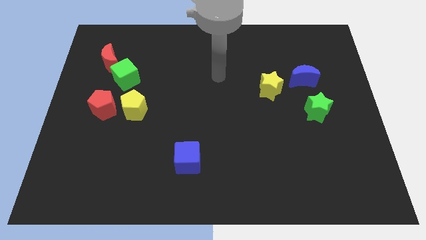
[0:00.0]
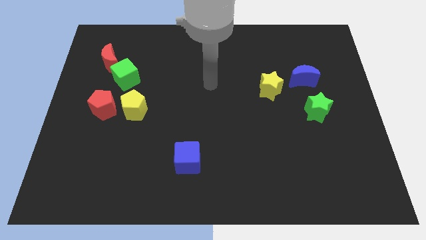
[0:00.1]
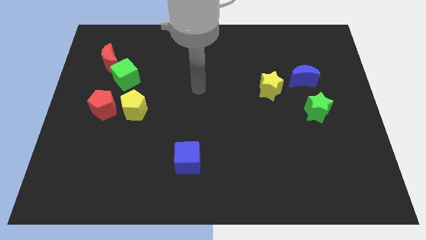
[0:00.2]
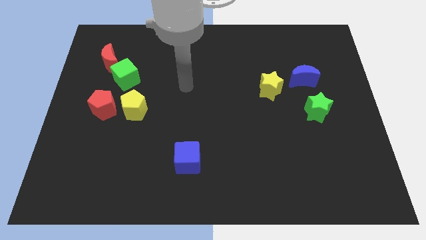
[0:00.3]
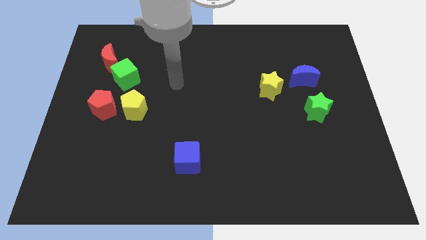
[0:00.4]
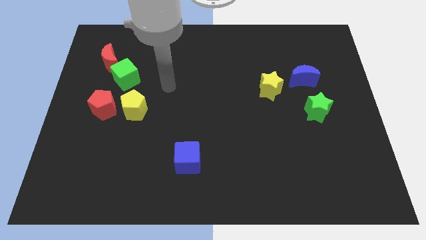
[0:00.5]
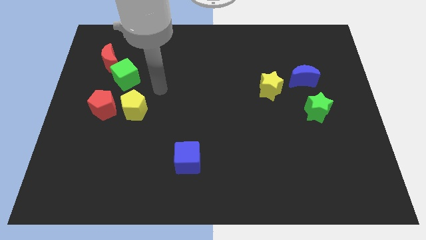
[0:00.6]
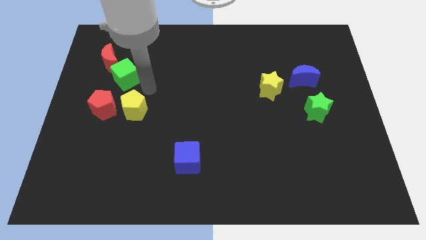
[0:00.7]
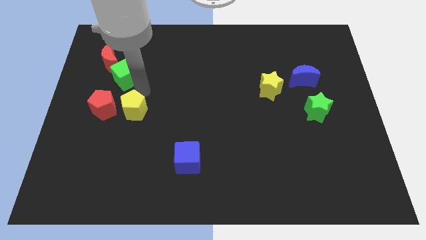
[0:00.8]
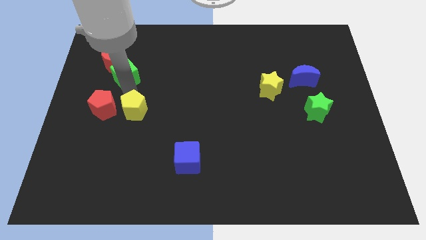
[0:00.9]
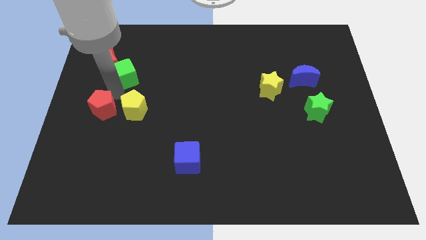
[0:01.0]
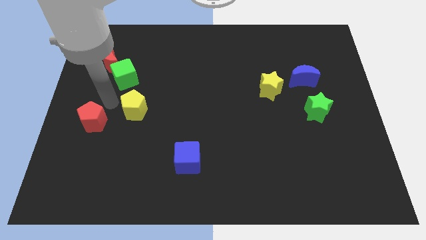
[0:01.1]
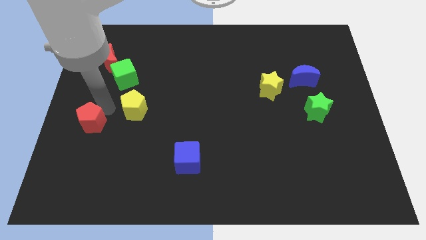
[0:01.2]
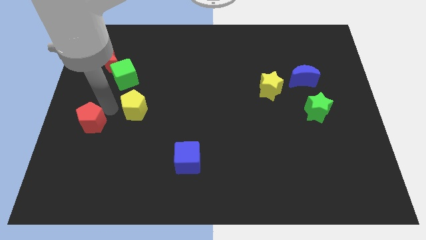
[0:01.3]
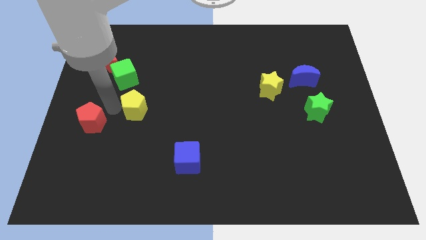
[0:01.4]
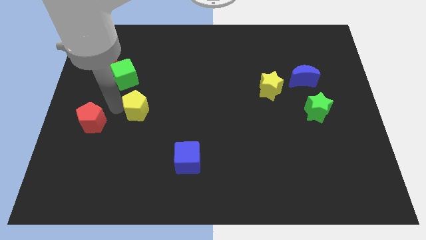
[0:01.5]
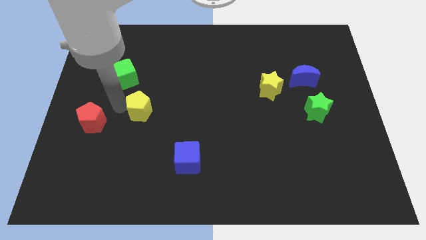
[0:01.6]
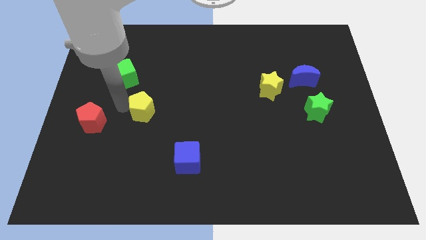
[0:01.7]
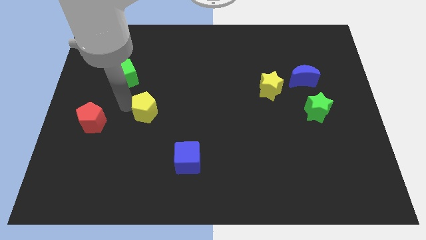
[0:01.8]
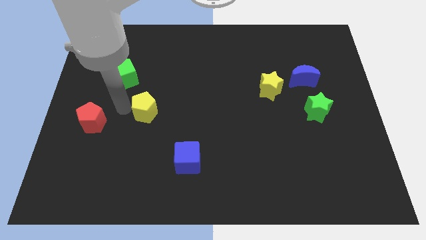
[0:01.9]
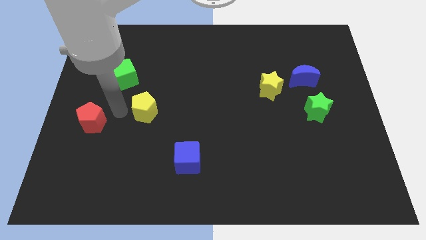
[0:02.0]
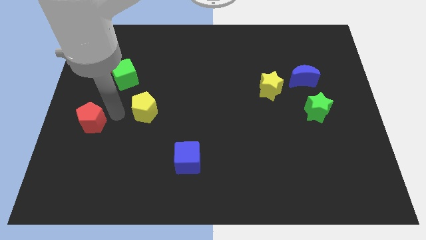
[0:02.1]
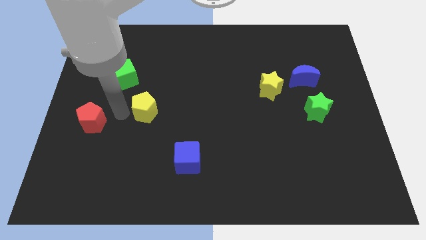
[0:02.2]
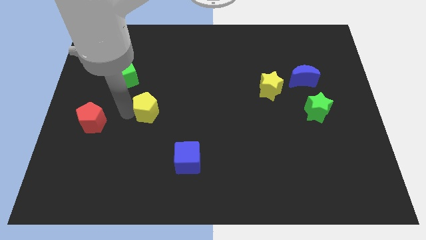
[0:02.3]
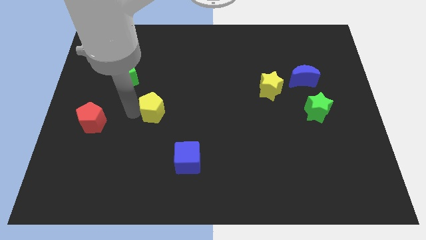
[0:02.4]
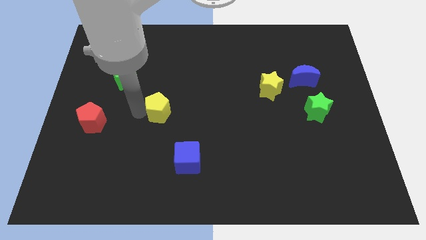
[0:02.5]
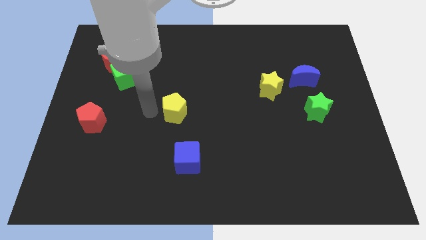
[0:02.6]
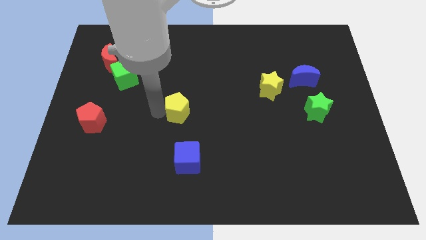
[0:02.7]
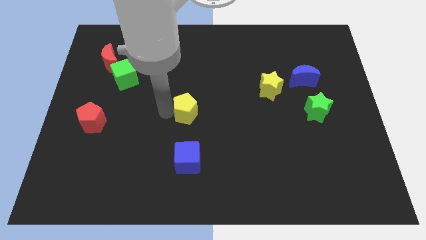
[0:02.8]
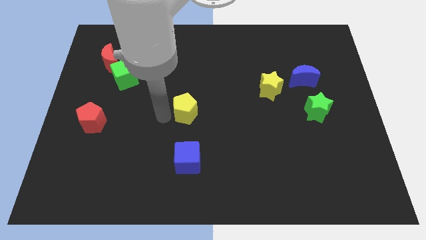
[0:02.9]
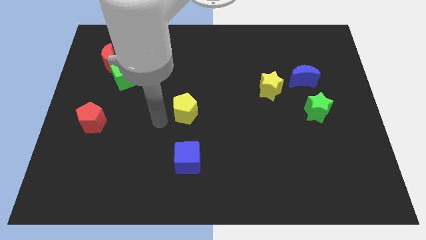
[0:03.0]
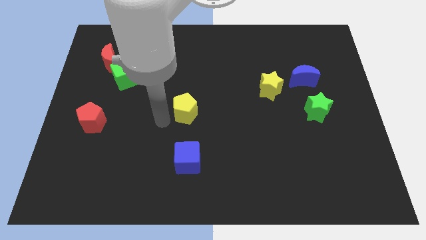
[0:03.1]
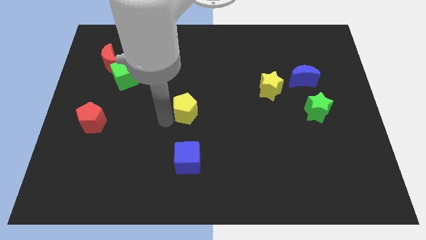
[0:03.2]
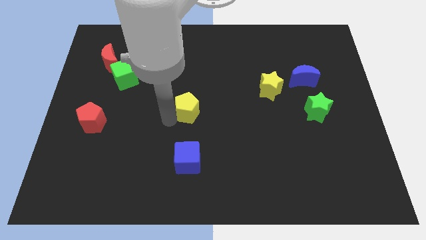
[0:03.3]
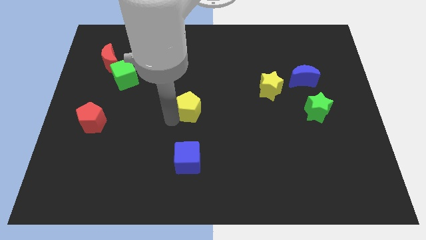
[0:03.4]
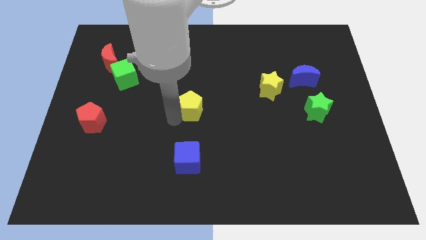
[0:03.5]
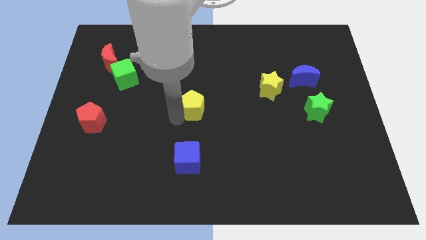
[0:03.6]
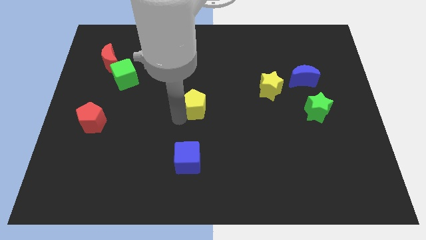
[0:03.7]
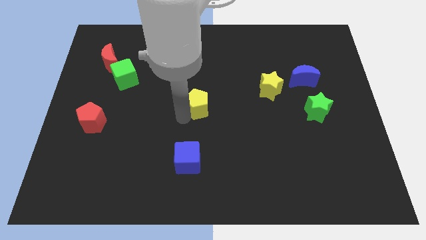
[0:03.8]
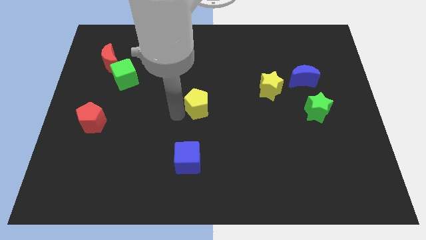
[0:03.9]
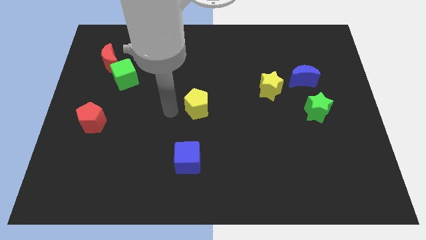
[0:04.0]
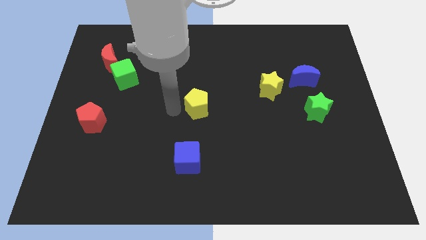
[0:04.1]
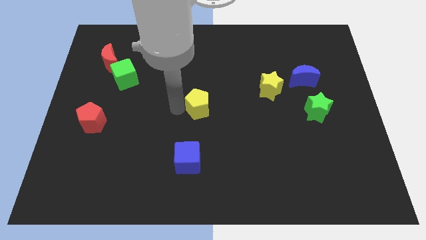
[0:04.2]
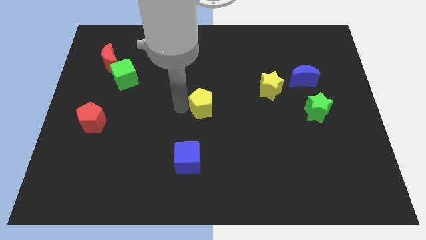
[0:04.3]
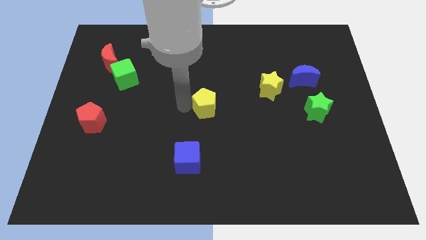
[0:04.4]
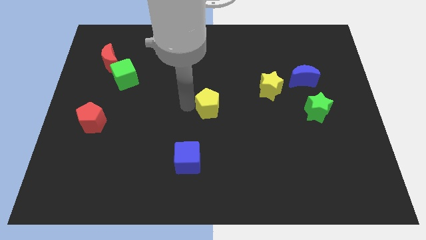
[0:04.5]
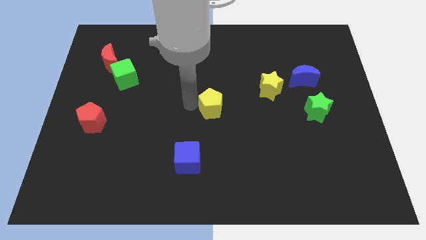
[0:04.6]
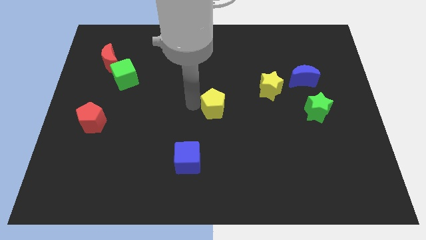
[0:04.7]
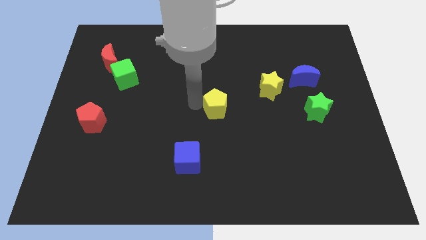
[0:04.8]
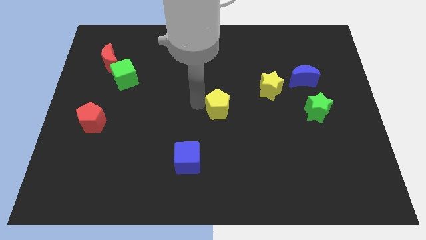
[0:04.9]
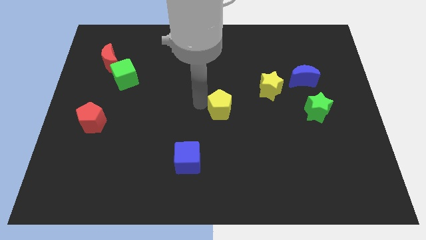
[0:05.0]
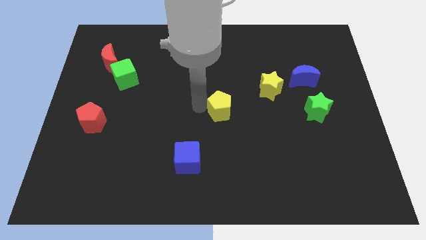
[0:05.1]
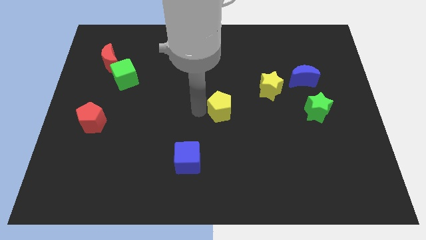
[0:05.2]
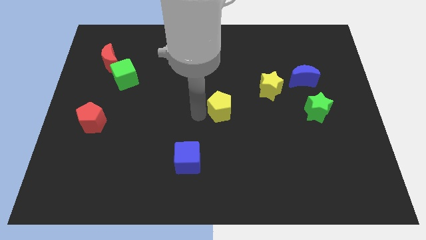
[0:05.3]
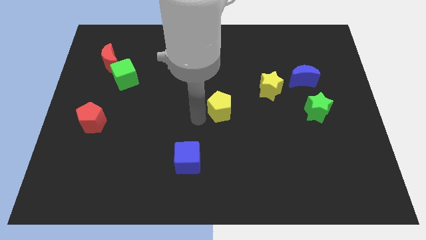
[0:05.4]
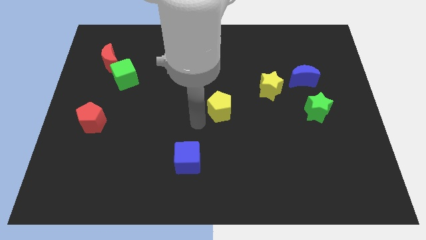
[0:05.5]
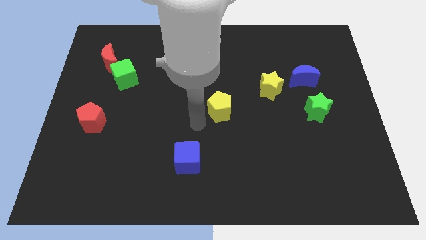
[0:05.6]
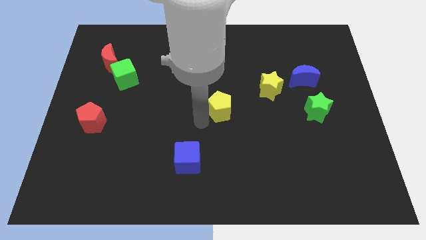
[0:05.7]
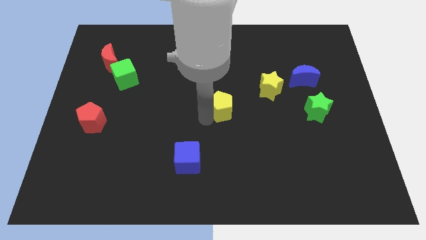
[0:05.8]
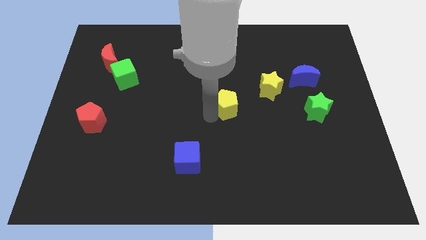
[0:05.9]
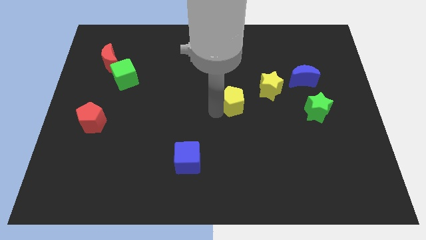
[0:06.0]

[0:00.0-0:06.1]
slide the yellow pentagon to the bottom left side of the yellow star

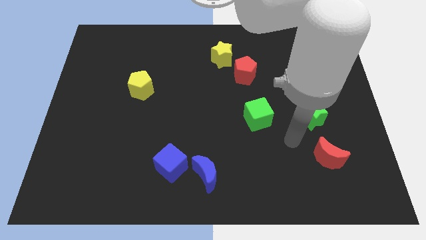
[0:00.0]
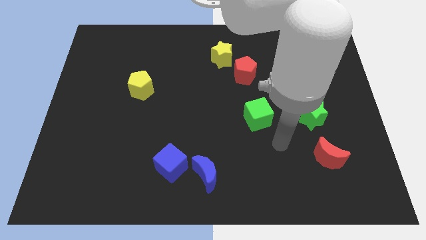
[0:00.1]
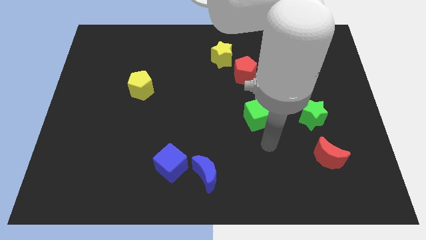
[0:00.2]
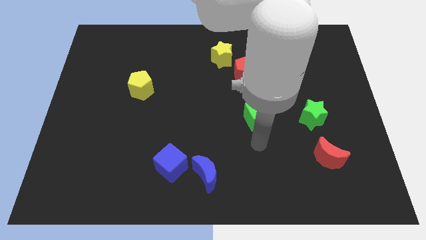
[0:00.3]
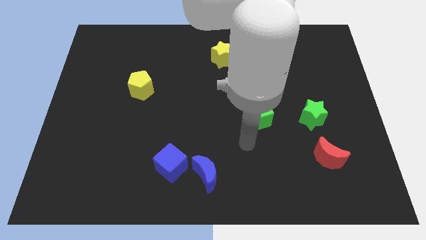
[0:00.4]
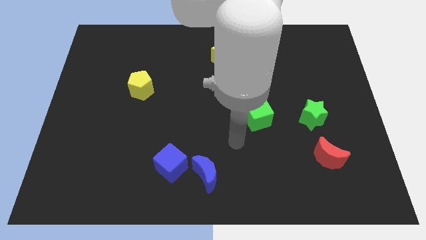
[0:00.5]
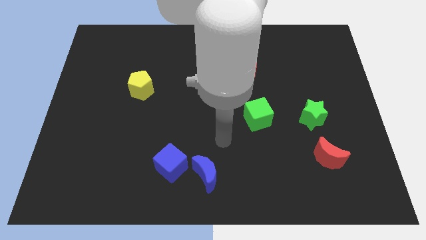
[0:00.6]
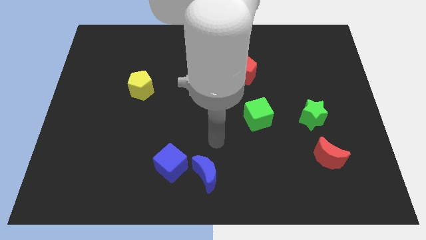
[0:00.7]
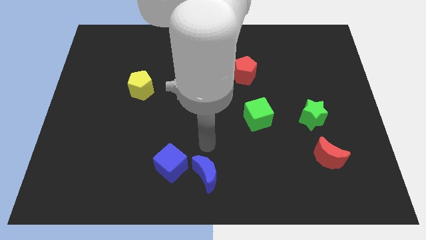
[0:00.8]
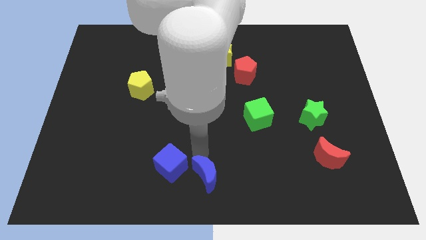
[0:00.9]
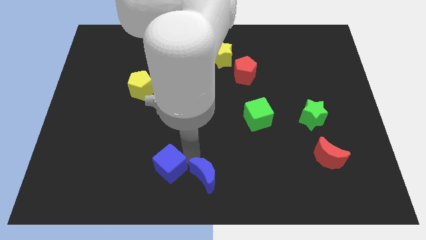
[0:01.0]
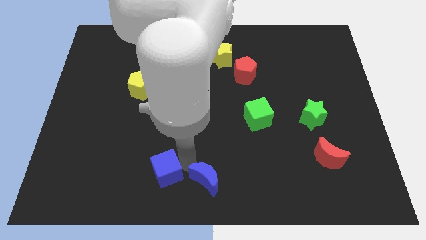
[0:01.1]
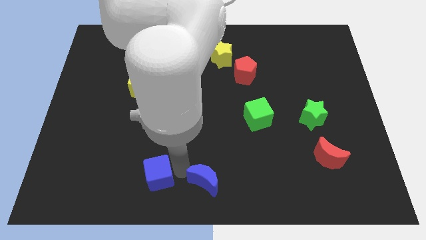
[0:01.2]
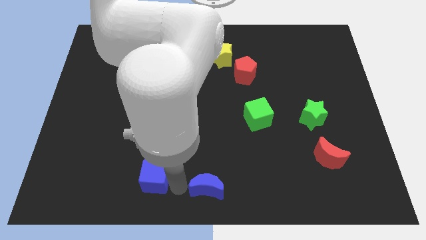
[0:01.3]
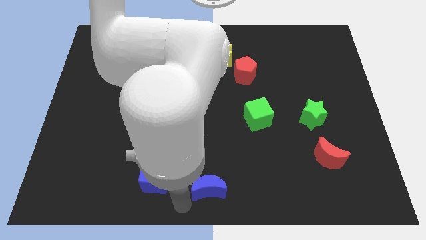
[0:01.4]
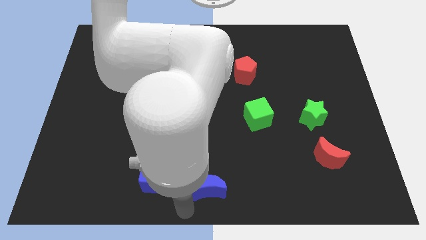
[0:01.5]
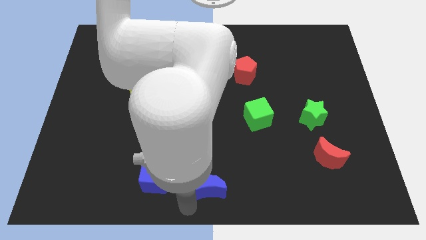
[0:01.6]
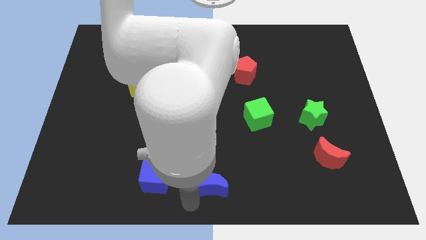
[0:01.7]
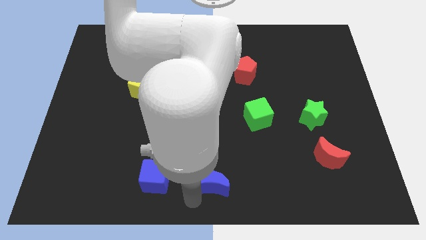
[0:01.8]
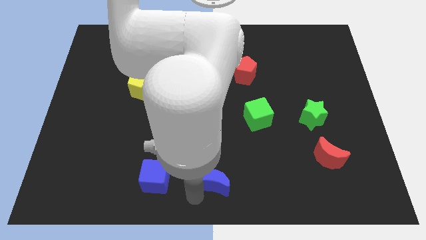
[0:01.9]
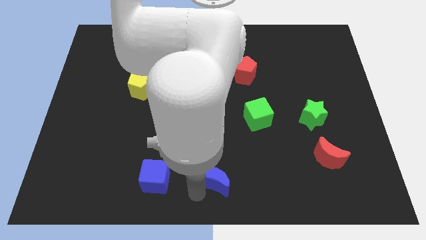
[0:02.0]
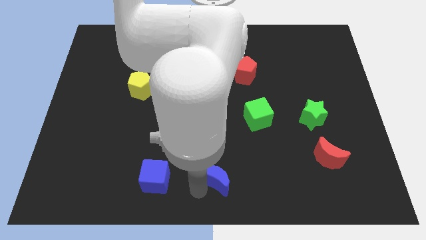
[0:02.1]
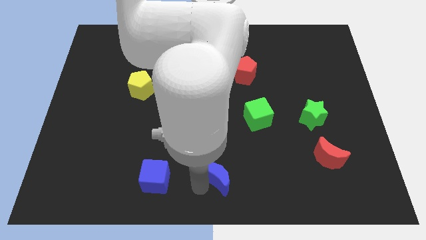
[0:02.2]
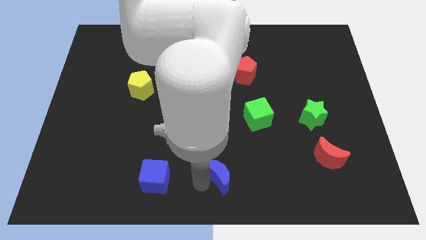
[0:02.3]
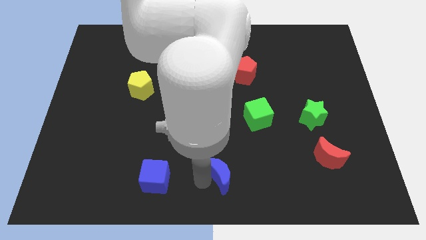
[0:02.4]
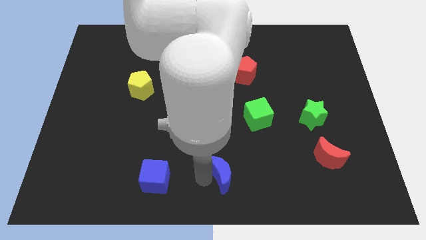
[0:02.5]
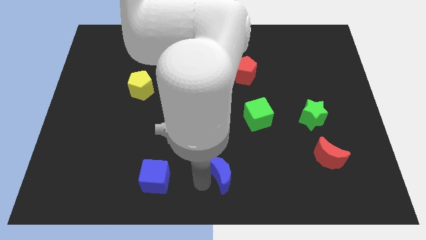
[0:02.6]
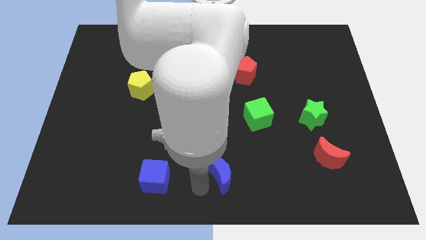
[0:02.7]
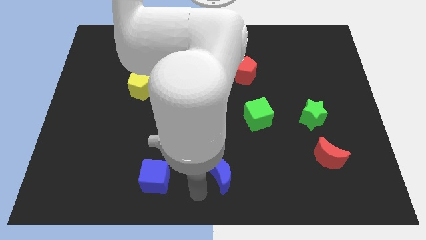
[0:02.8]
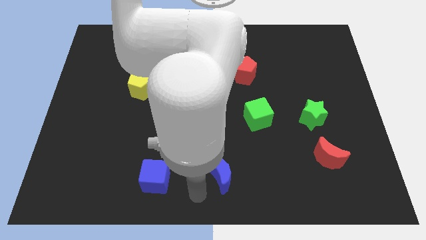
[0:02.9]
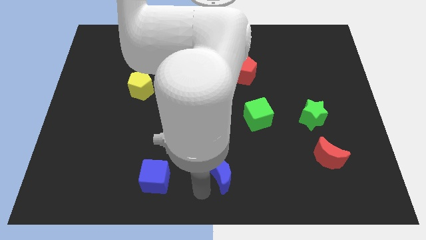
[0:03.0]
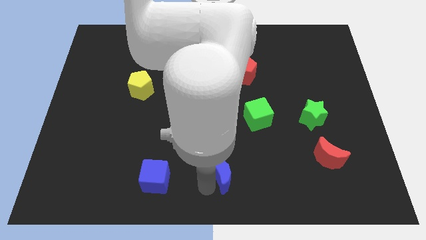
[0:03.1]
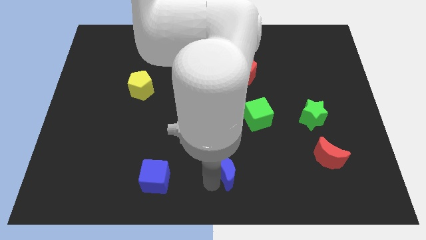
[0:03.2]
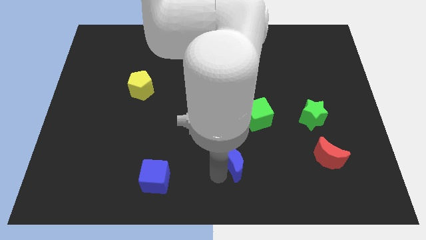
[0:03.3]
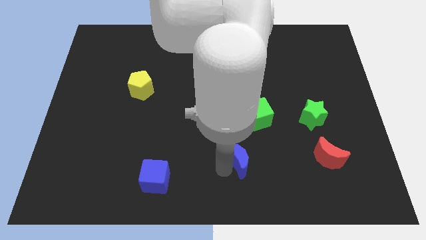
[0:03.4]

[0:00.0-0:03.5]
put the blue moon to the bottom side of the green cube
